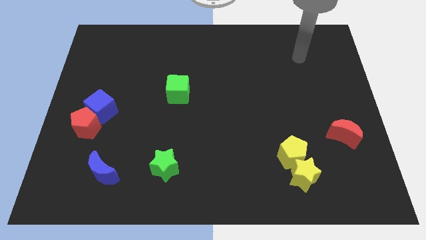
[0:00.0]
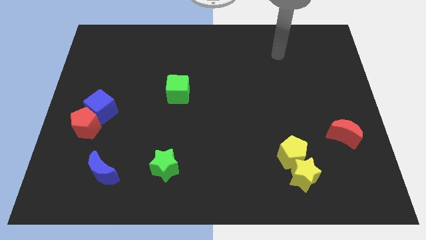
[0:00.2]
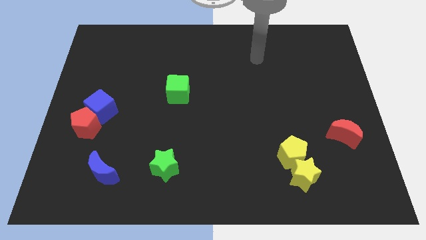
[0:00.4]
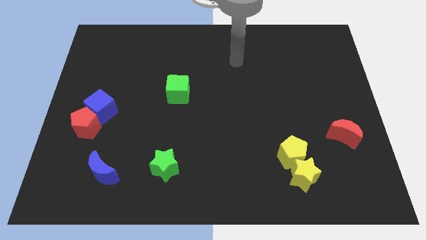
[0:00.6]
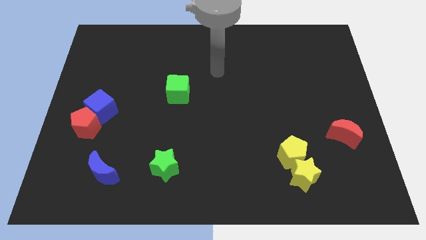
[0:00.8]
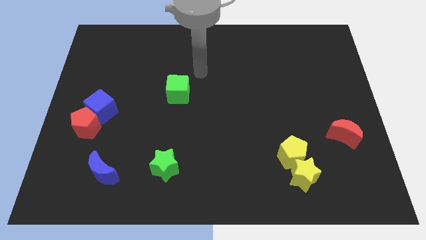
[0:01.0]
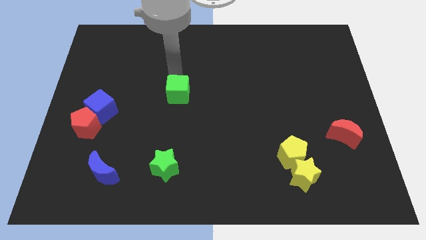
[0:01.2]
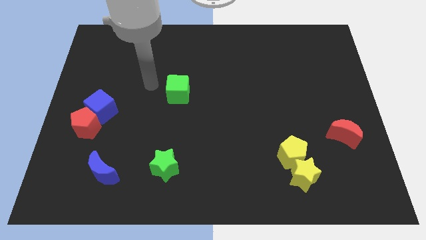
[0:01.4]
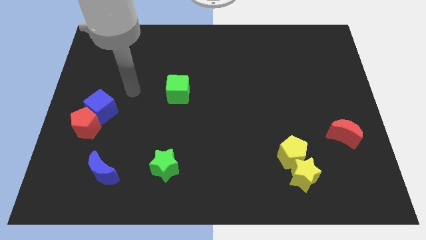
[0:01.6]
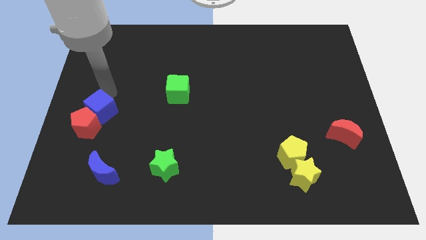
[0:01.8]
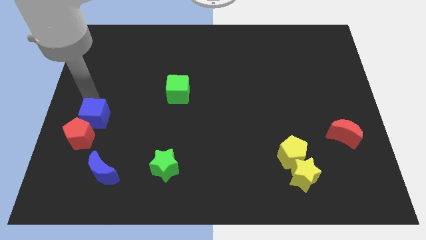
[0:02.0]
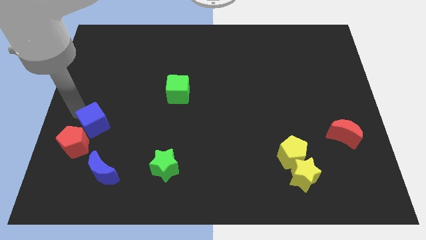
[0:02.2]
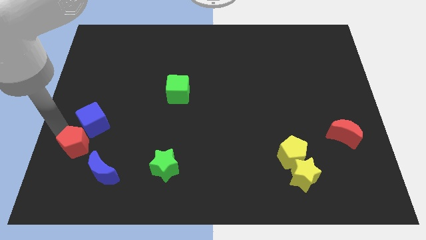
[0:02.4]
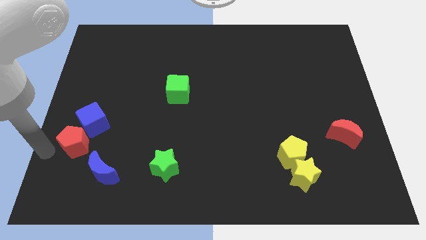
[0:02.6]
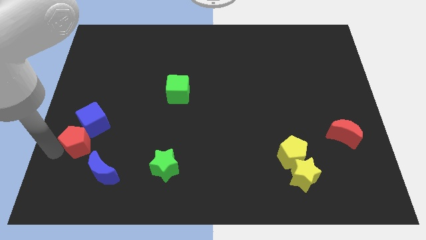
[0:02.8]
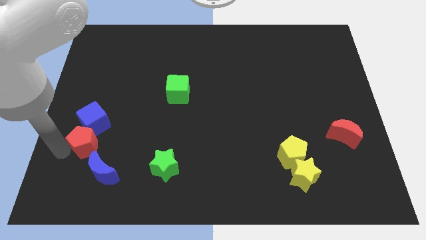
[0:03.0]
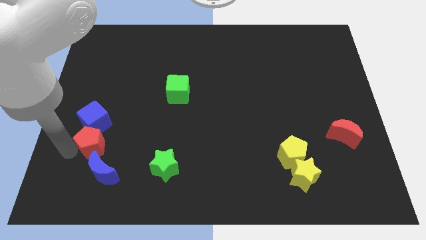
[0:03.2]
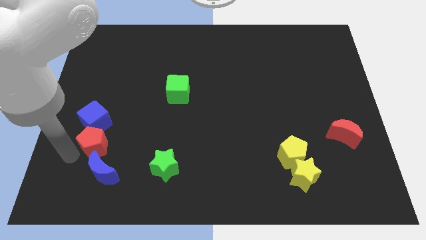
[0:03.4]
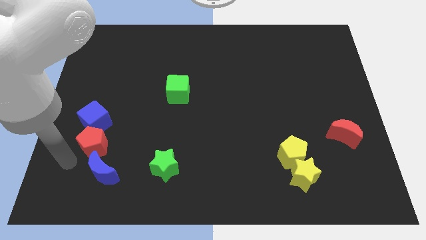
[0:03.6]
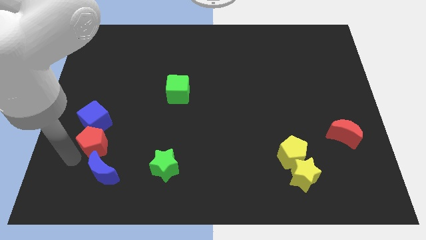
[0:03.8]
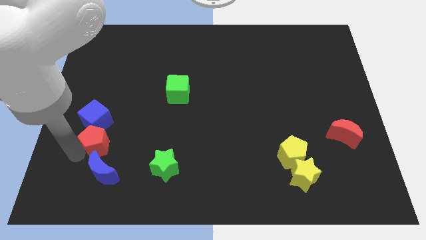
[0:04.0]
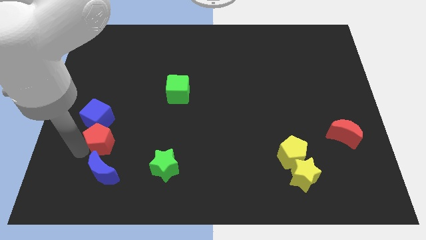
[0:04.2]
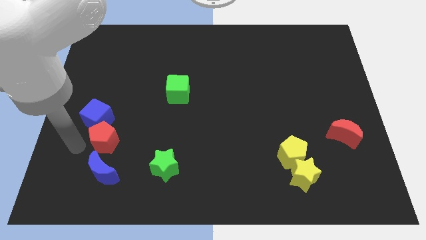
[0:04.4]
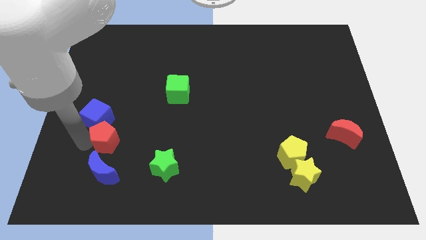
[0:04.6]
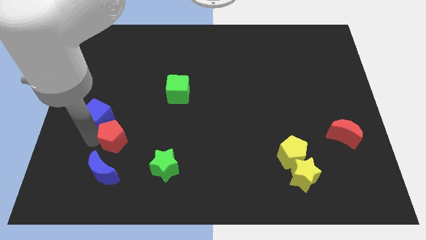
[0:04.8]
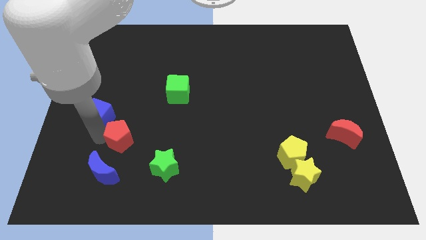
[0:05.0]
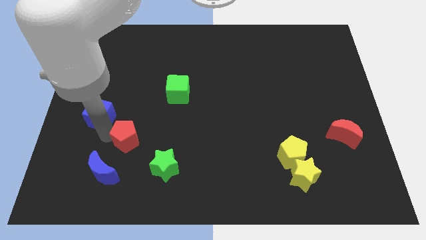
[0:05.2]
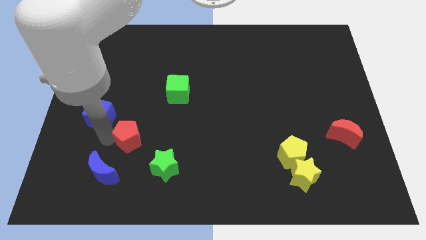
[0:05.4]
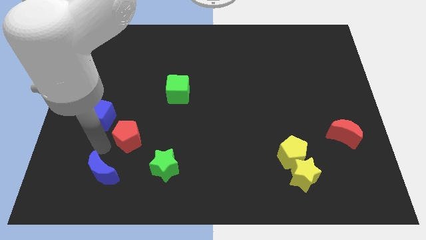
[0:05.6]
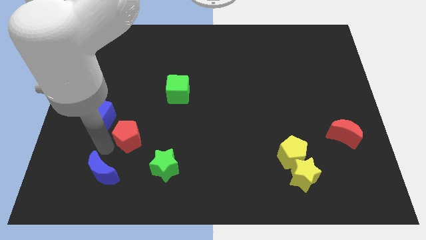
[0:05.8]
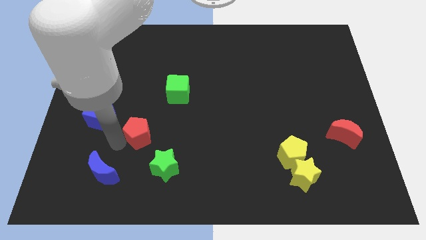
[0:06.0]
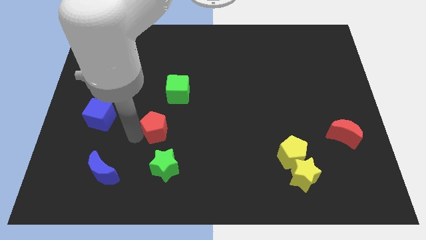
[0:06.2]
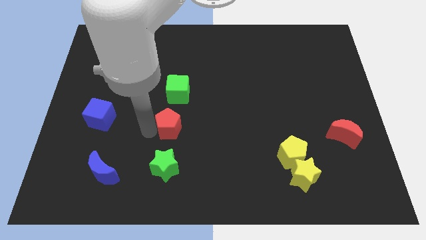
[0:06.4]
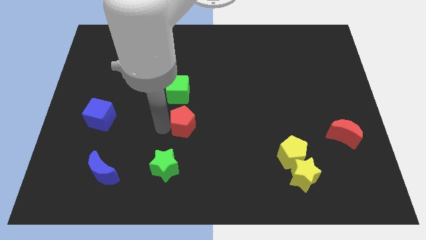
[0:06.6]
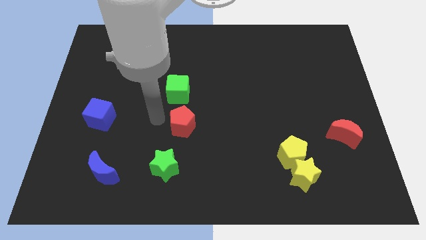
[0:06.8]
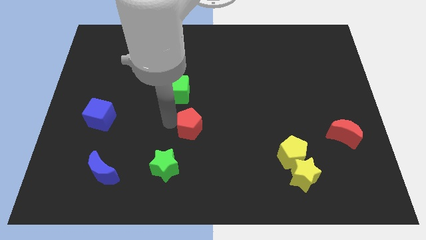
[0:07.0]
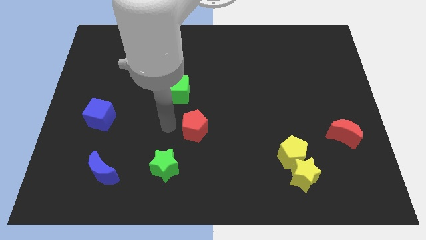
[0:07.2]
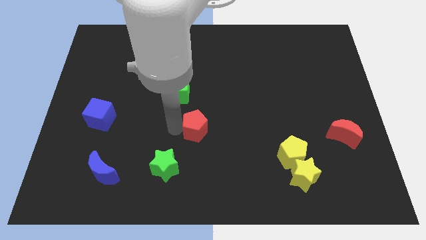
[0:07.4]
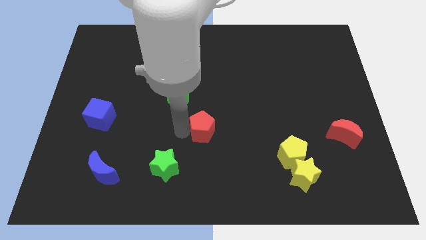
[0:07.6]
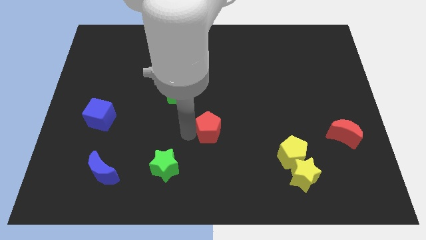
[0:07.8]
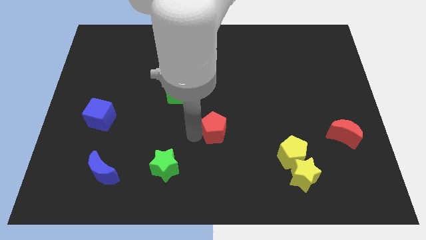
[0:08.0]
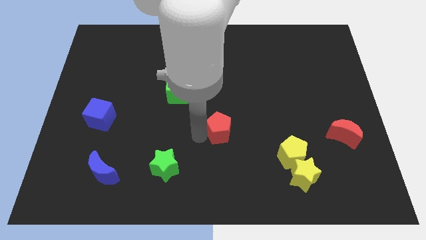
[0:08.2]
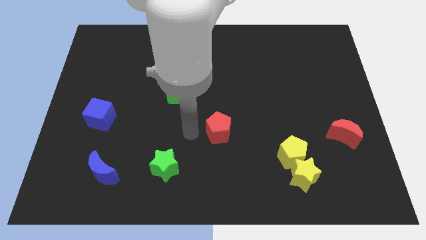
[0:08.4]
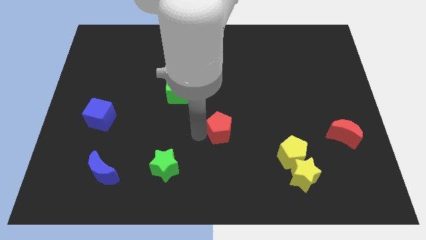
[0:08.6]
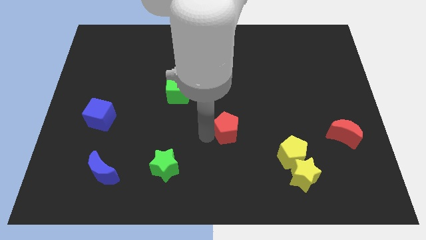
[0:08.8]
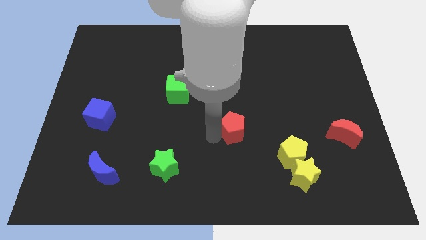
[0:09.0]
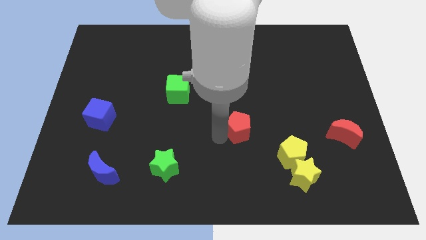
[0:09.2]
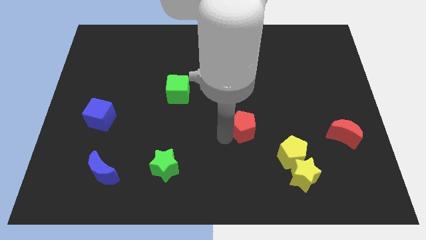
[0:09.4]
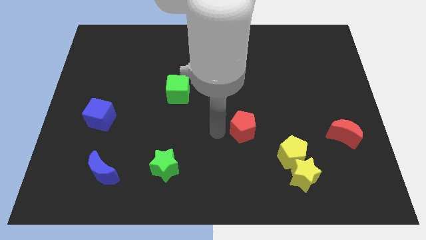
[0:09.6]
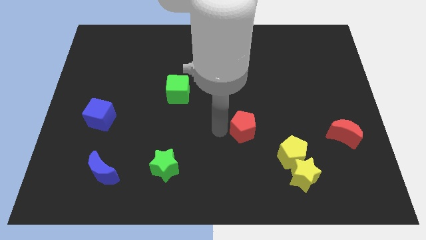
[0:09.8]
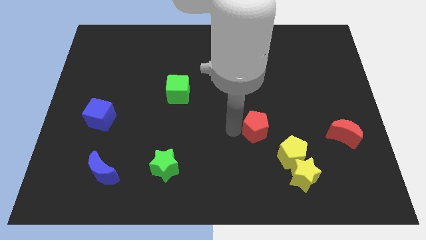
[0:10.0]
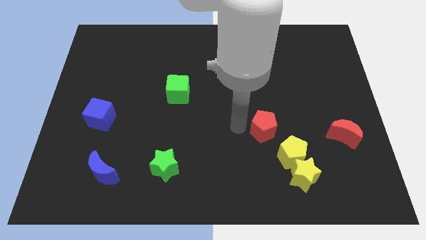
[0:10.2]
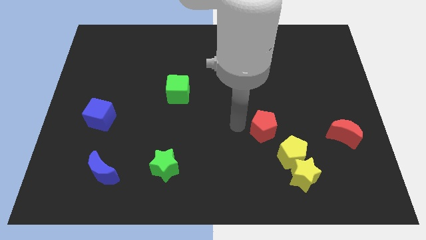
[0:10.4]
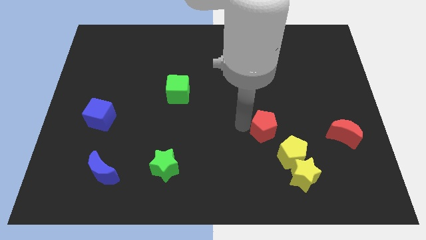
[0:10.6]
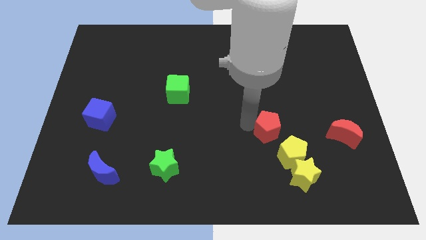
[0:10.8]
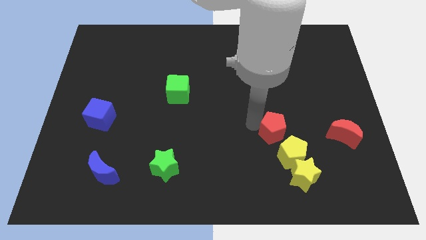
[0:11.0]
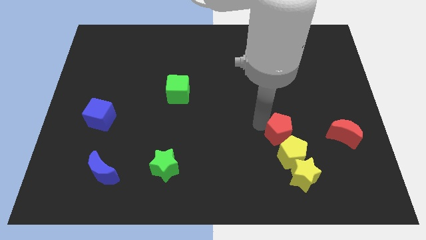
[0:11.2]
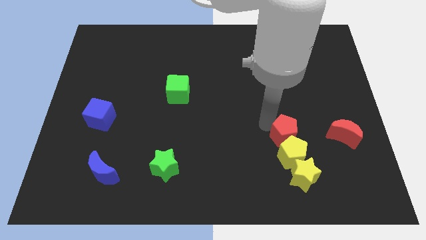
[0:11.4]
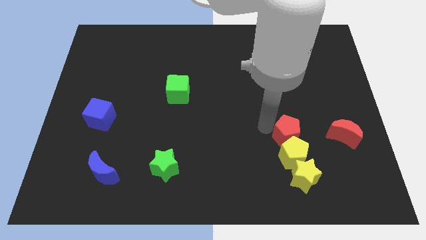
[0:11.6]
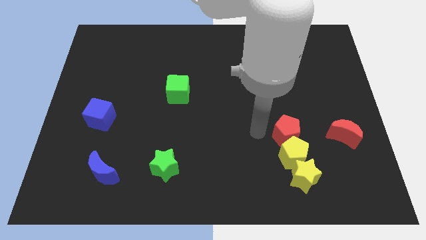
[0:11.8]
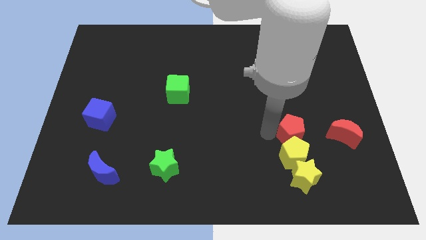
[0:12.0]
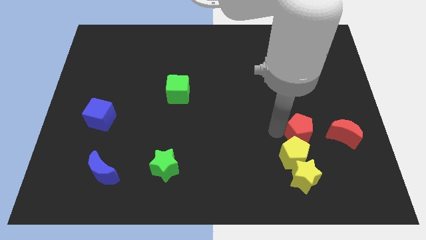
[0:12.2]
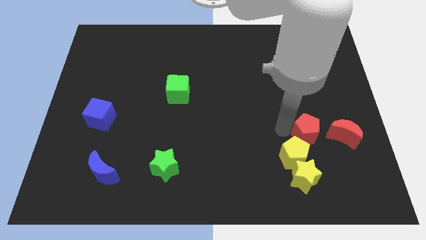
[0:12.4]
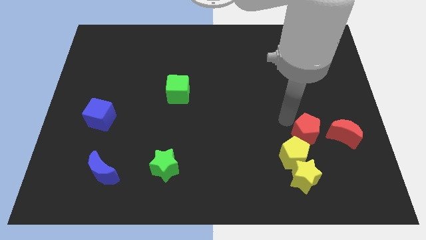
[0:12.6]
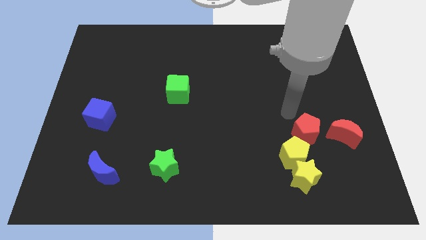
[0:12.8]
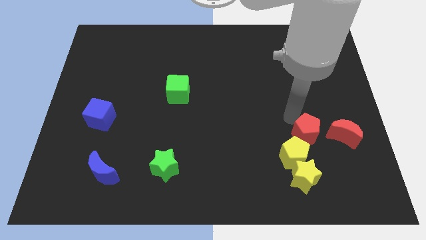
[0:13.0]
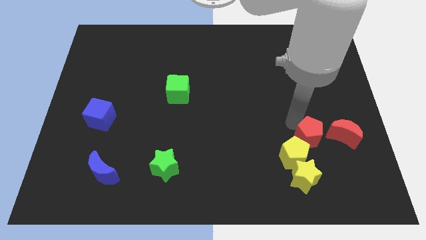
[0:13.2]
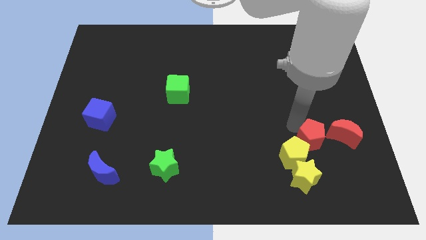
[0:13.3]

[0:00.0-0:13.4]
push the red pentagon diagonally up and to the right of the yellow star

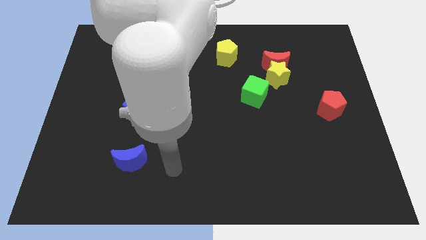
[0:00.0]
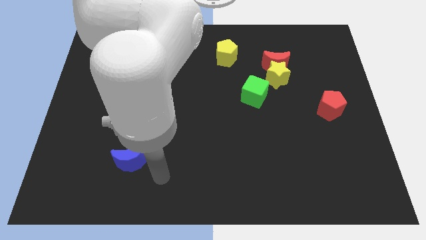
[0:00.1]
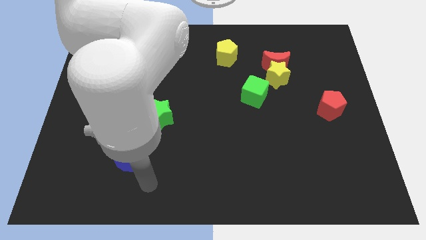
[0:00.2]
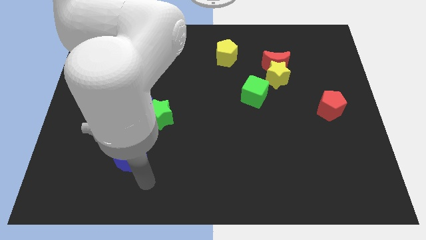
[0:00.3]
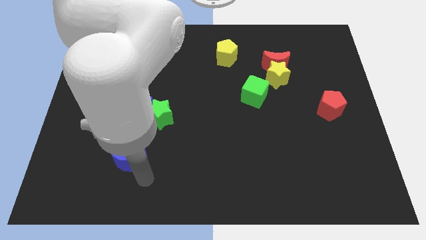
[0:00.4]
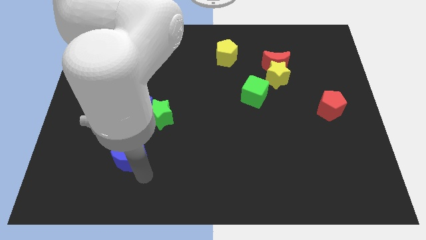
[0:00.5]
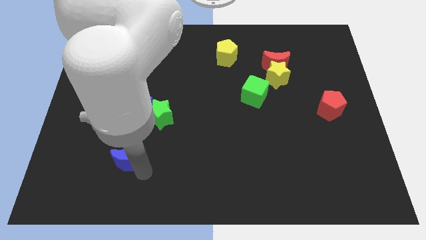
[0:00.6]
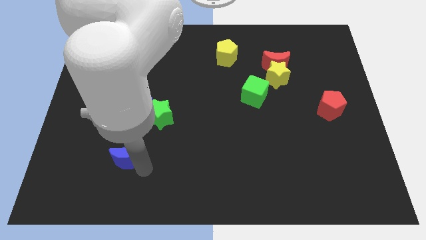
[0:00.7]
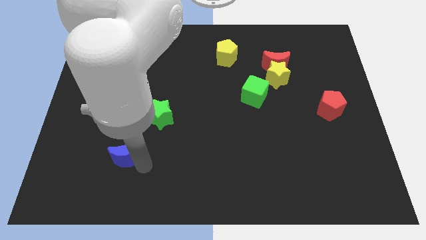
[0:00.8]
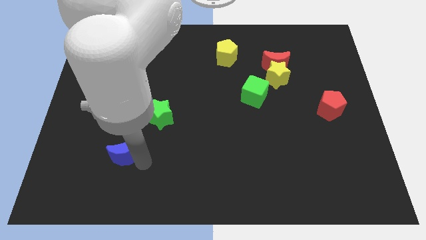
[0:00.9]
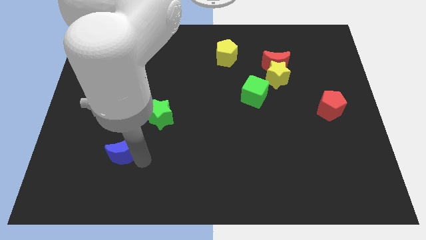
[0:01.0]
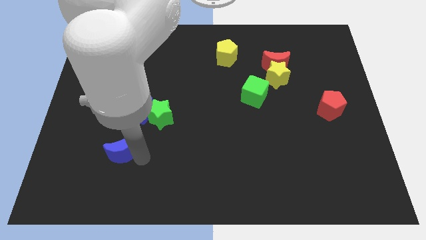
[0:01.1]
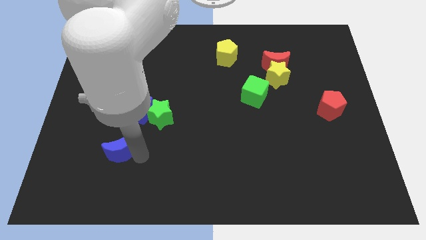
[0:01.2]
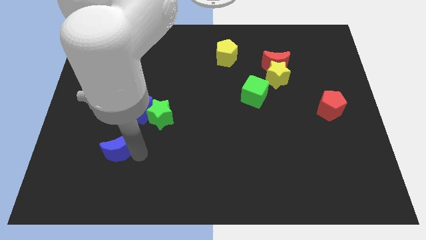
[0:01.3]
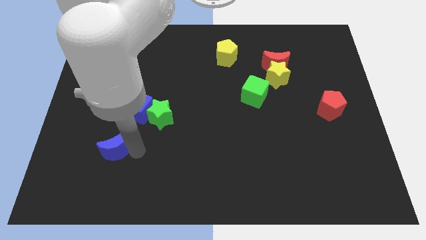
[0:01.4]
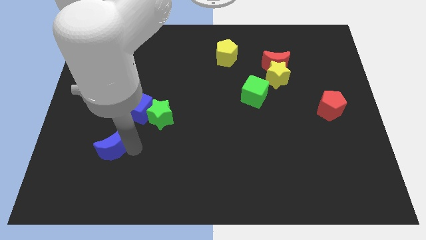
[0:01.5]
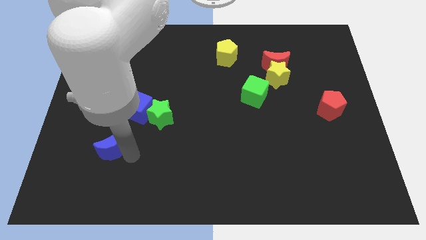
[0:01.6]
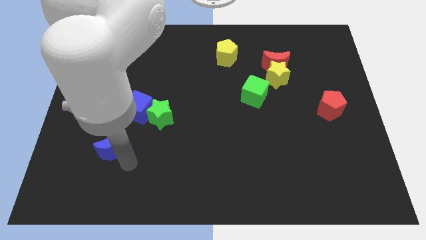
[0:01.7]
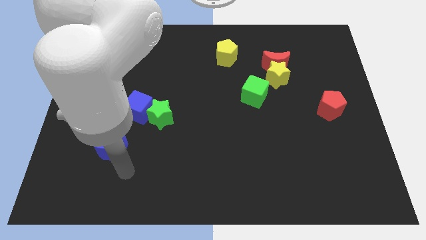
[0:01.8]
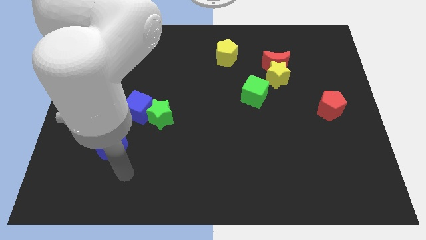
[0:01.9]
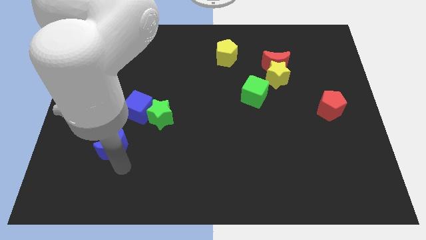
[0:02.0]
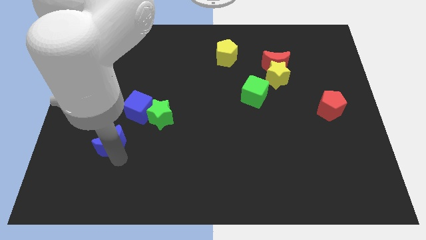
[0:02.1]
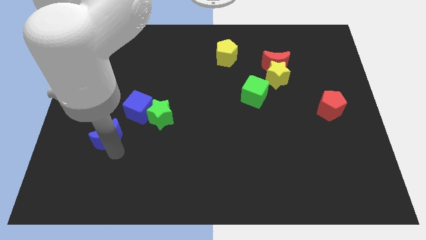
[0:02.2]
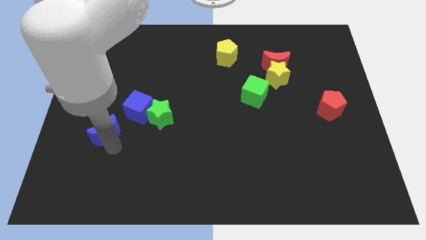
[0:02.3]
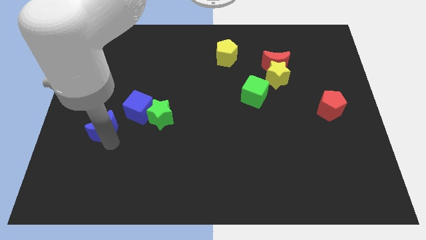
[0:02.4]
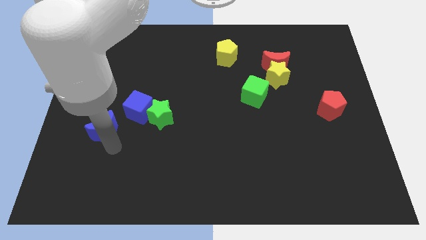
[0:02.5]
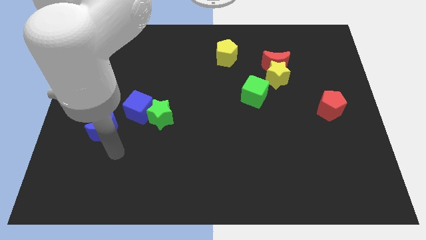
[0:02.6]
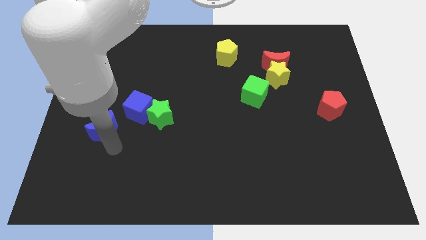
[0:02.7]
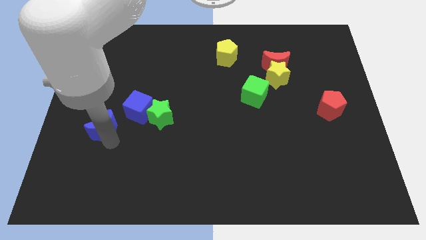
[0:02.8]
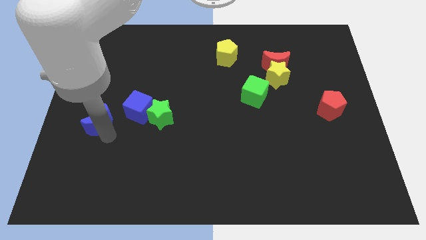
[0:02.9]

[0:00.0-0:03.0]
move the blue moon left of the blue cube
